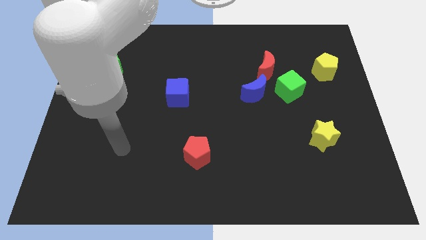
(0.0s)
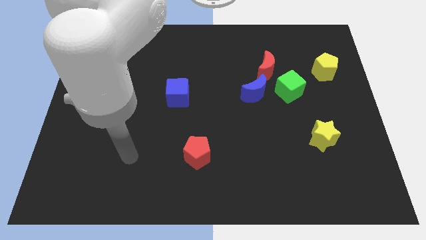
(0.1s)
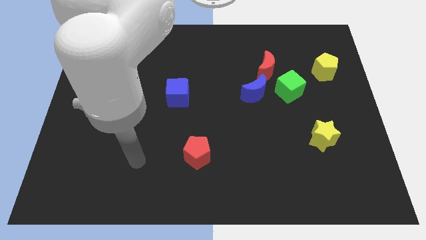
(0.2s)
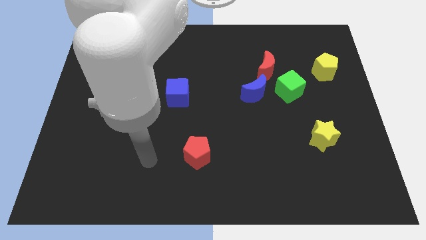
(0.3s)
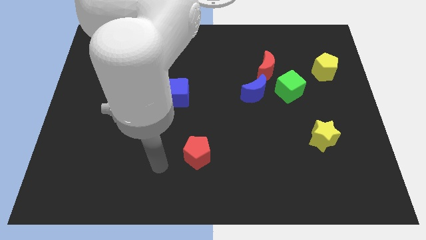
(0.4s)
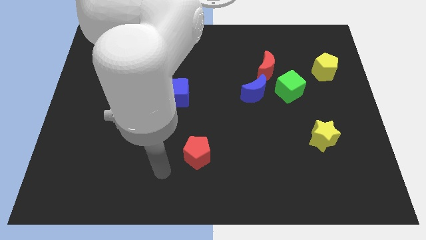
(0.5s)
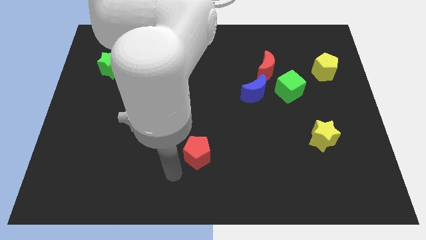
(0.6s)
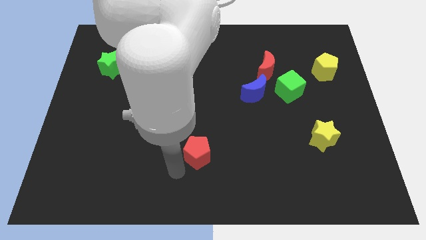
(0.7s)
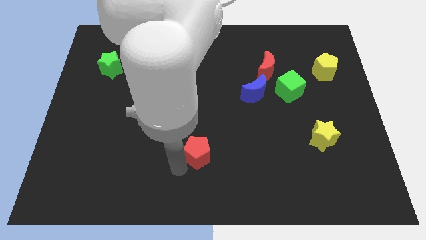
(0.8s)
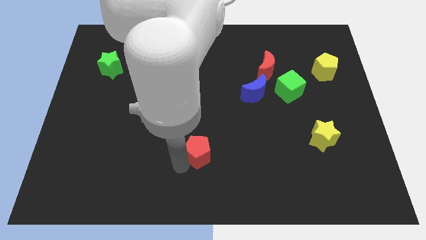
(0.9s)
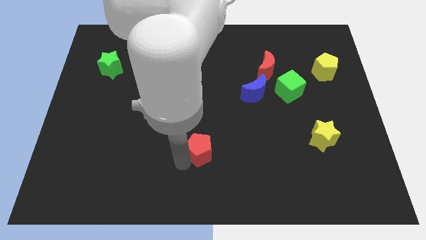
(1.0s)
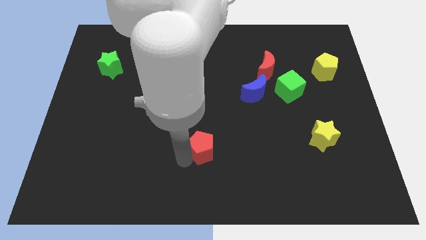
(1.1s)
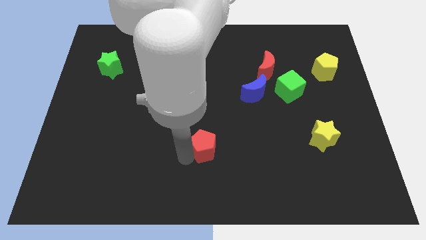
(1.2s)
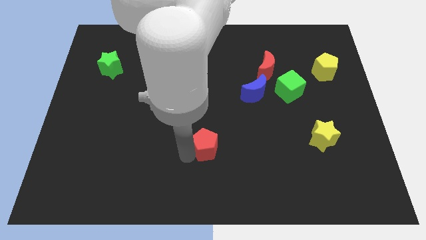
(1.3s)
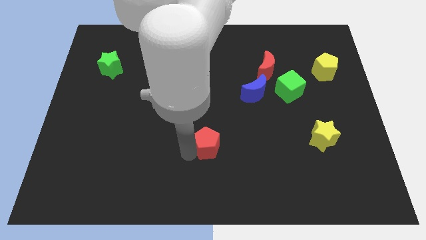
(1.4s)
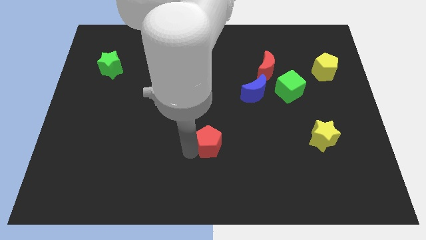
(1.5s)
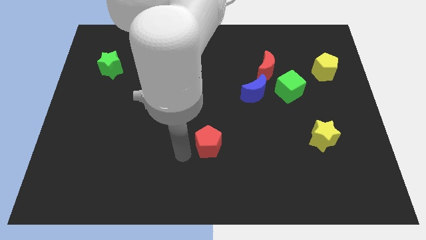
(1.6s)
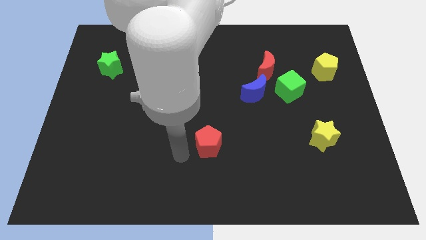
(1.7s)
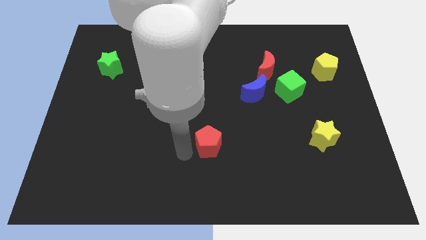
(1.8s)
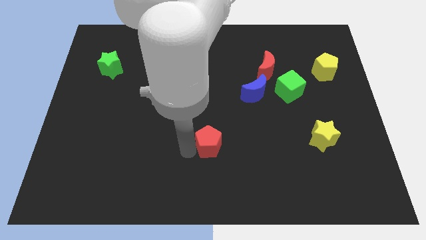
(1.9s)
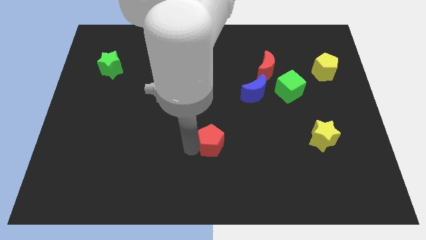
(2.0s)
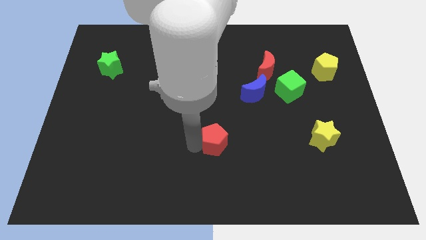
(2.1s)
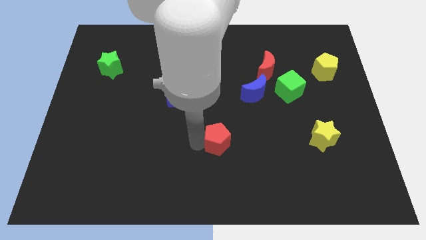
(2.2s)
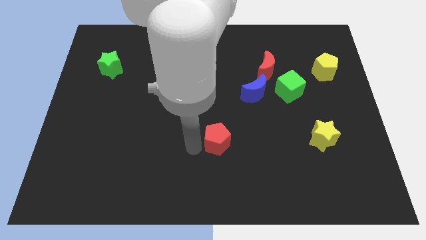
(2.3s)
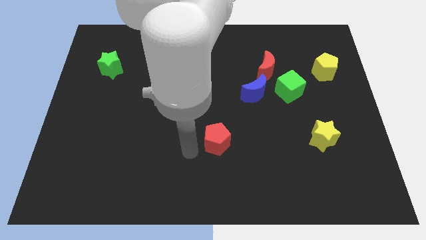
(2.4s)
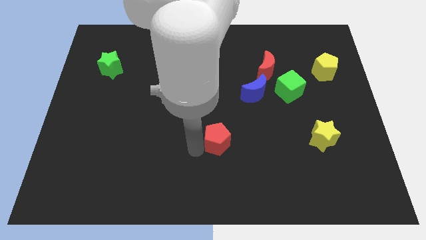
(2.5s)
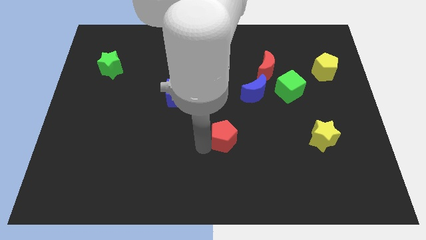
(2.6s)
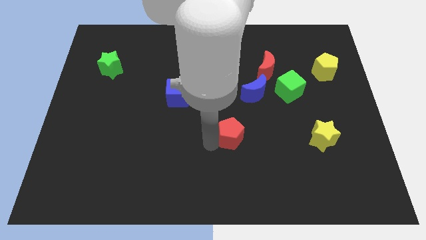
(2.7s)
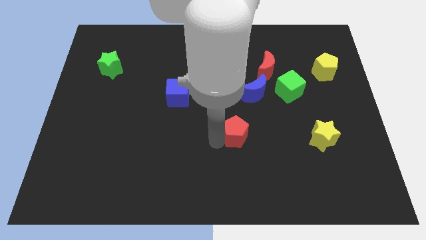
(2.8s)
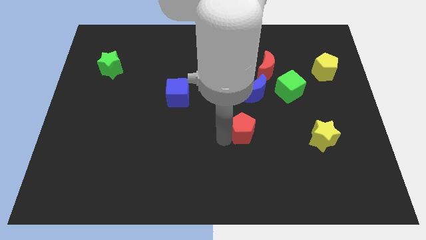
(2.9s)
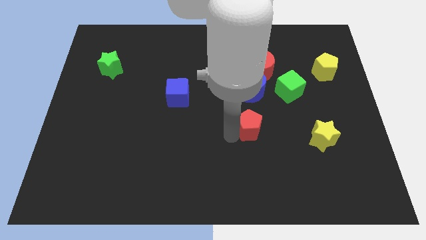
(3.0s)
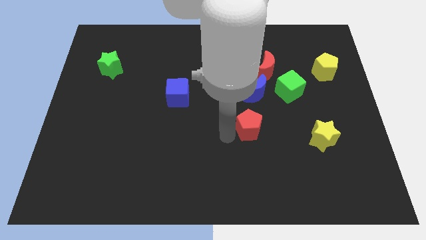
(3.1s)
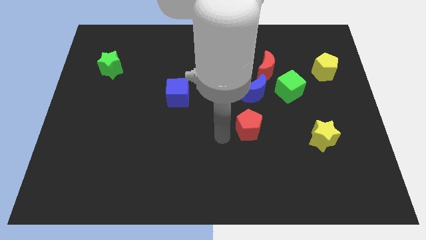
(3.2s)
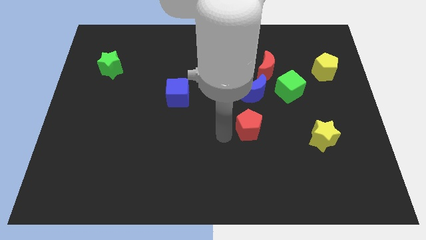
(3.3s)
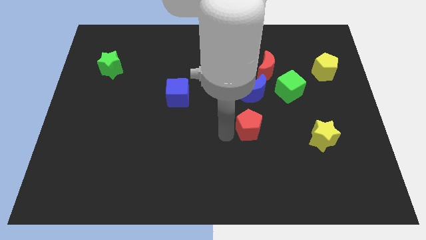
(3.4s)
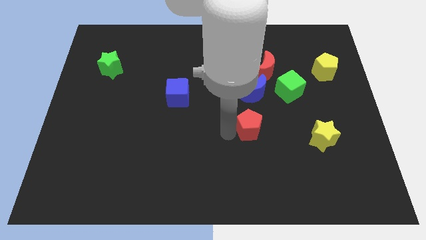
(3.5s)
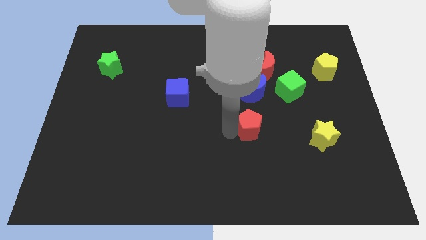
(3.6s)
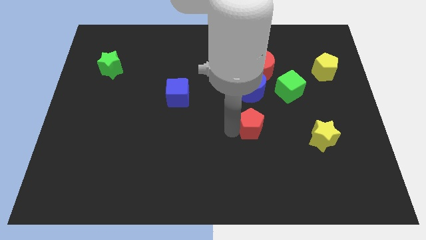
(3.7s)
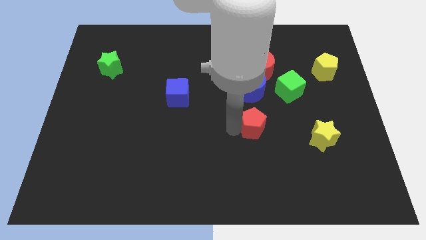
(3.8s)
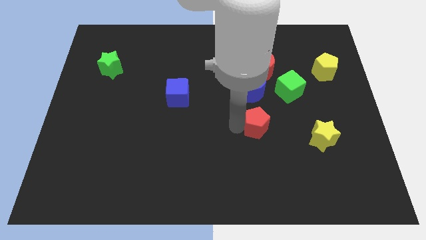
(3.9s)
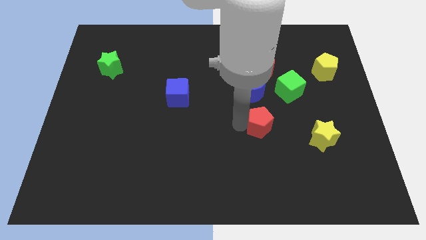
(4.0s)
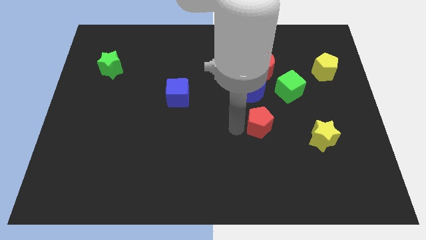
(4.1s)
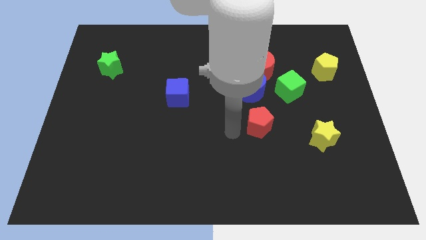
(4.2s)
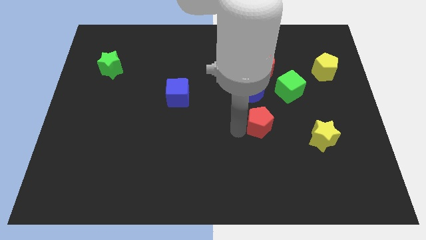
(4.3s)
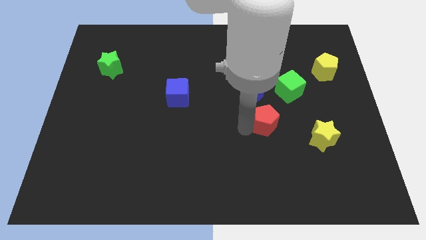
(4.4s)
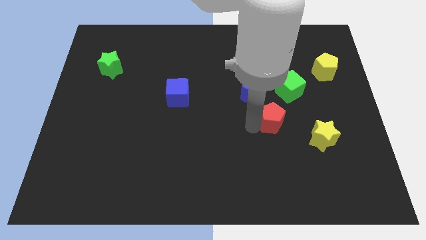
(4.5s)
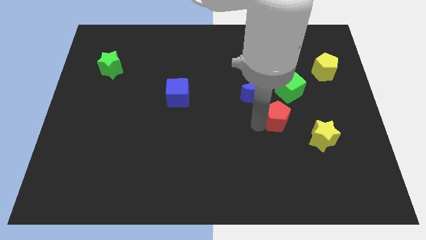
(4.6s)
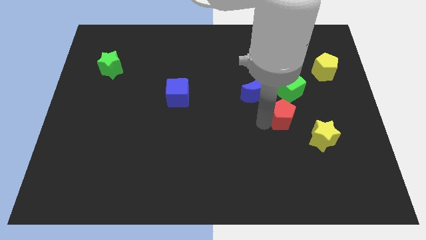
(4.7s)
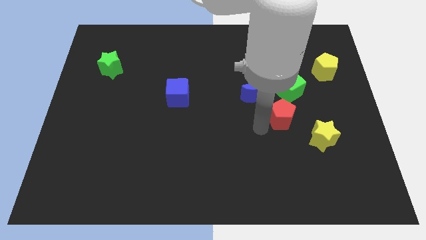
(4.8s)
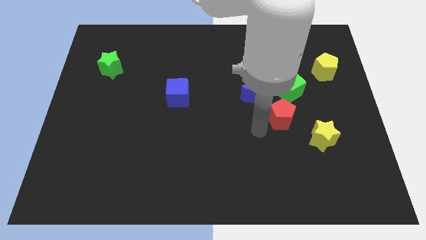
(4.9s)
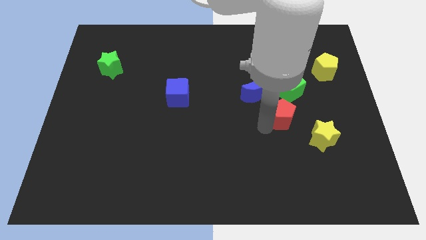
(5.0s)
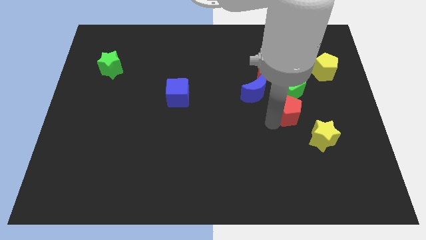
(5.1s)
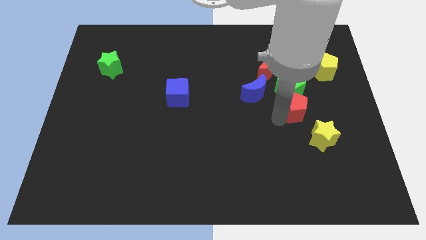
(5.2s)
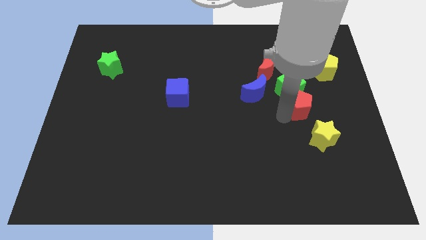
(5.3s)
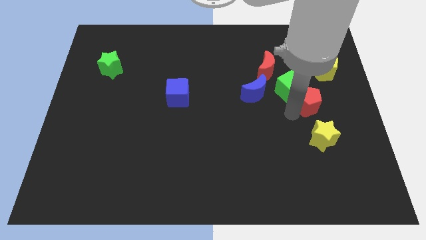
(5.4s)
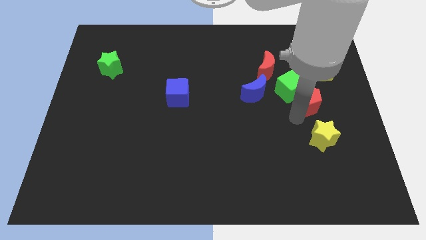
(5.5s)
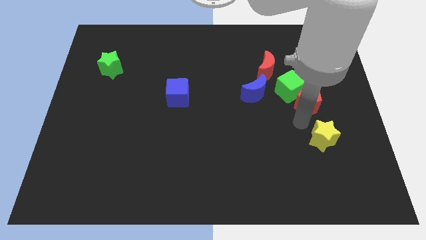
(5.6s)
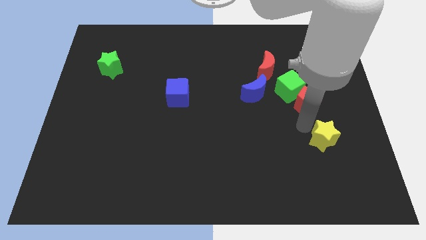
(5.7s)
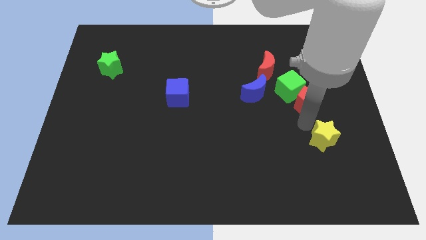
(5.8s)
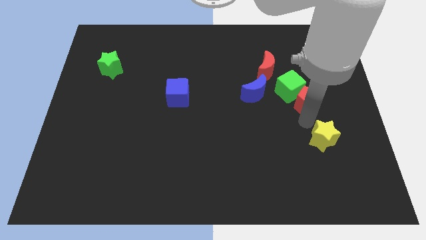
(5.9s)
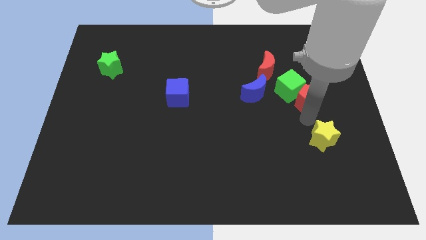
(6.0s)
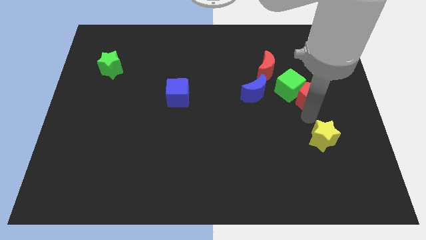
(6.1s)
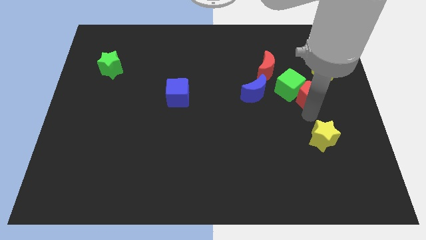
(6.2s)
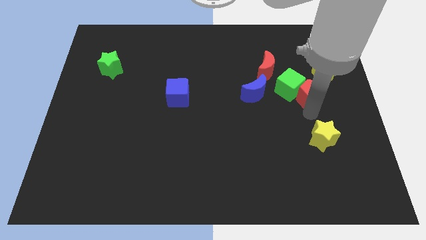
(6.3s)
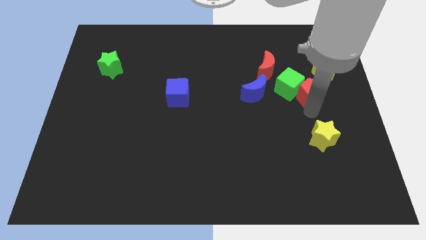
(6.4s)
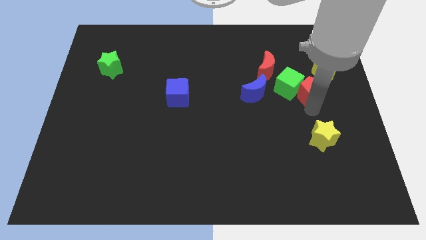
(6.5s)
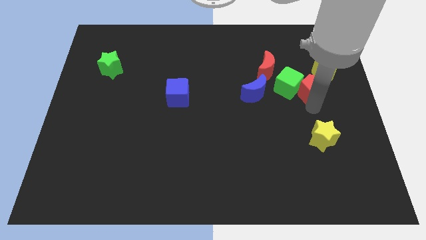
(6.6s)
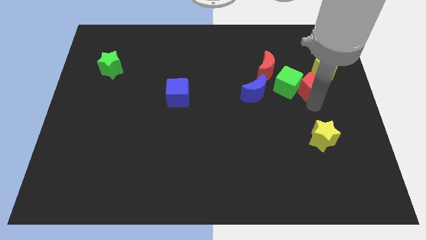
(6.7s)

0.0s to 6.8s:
move the red pentagon to the top right of the green cube
